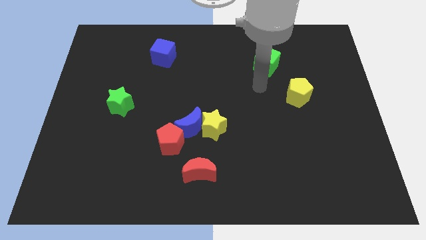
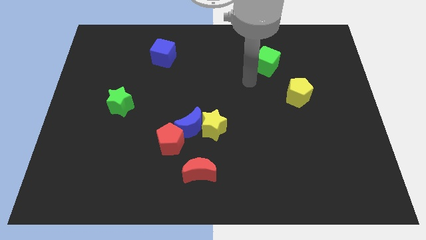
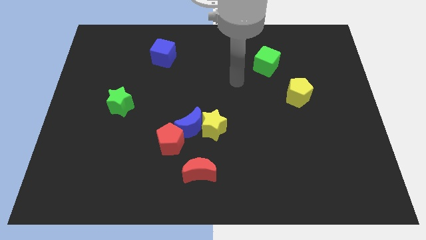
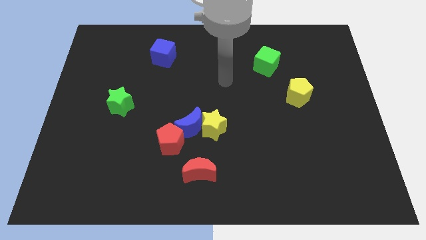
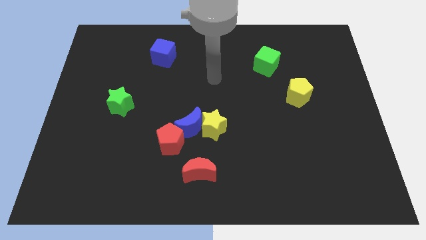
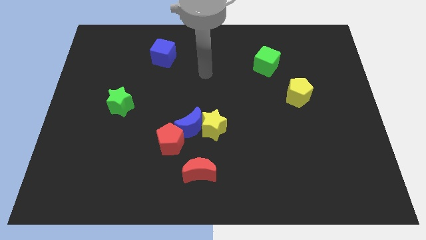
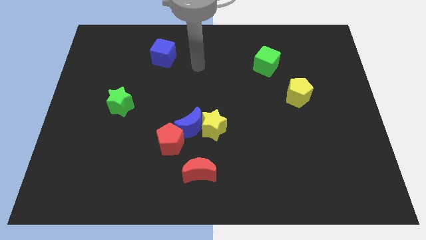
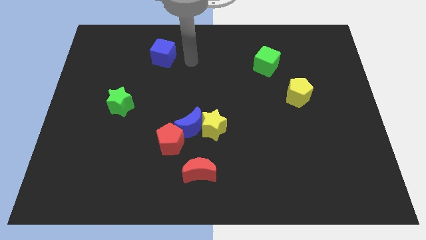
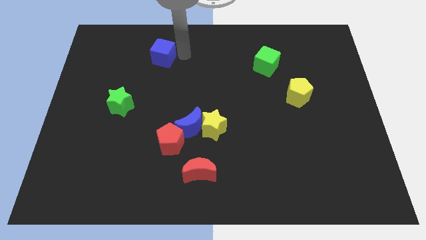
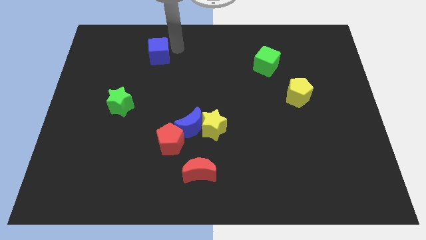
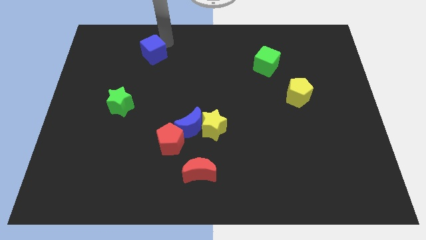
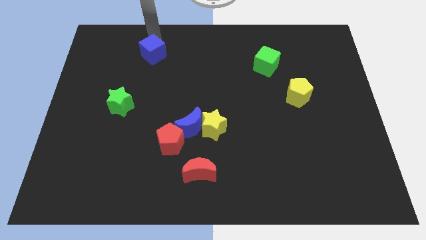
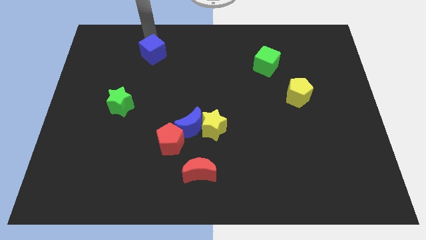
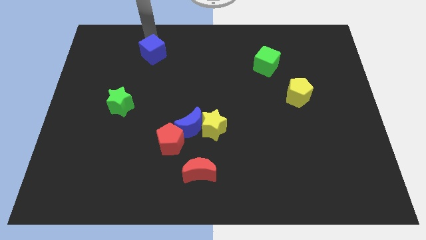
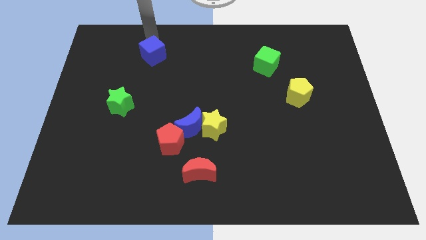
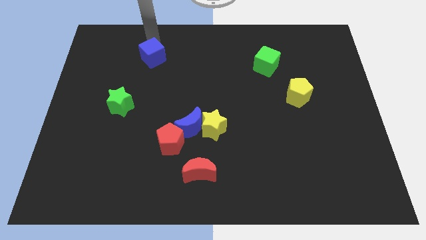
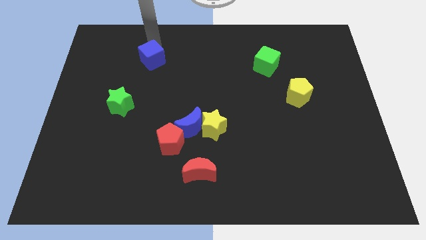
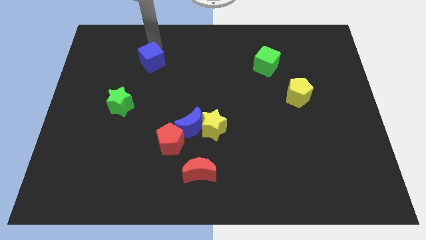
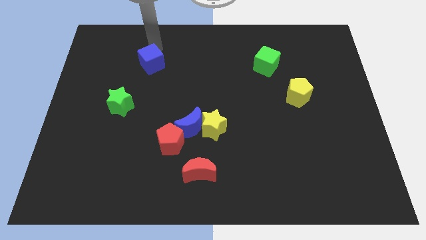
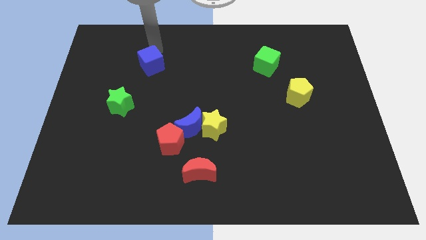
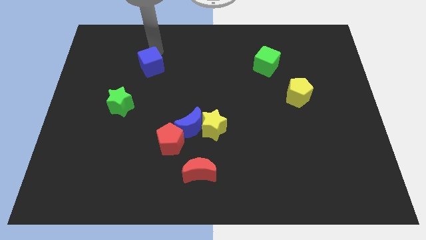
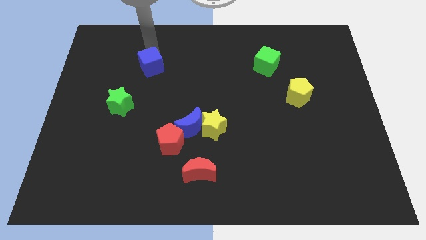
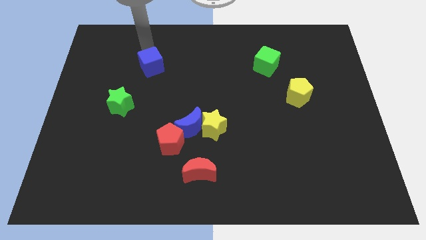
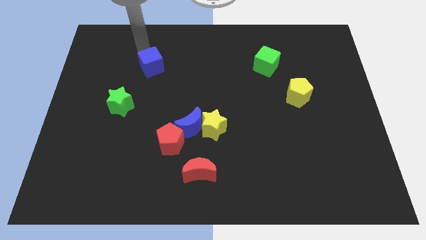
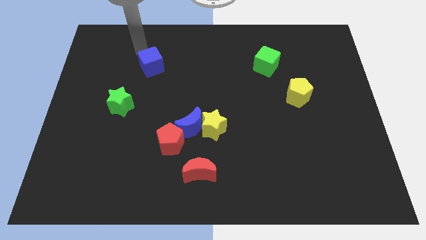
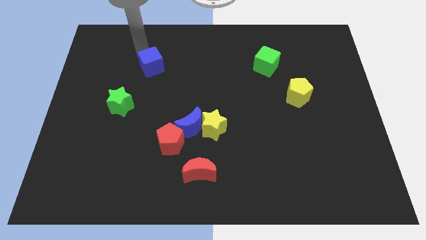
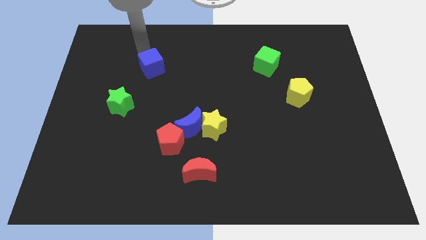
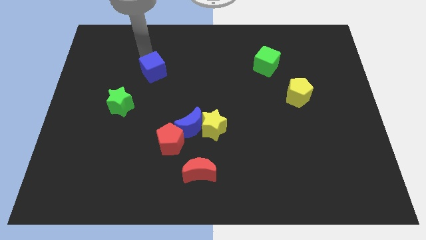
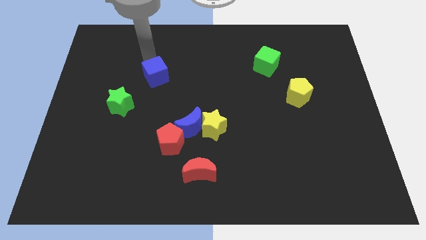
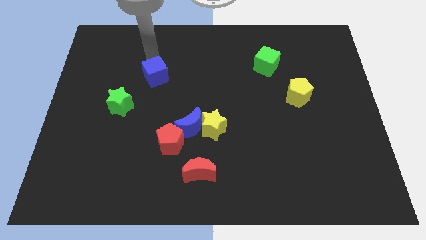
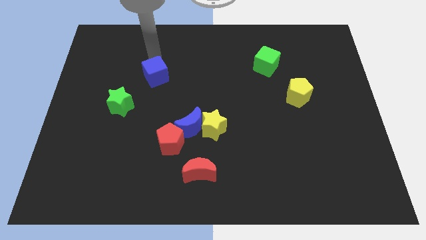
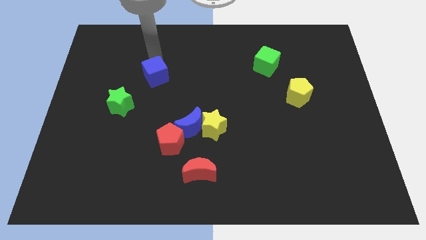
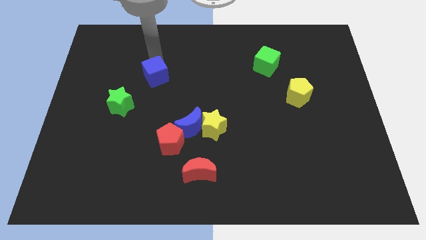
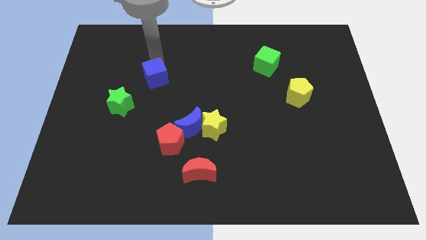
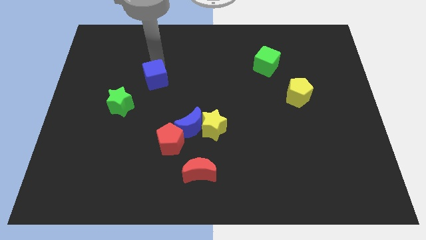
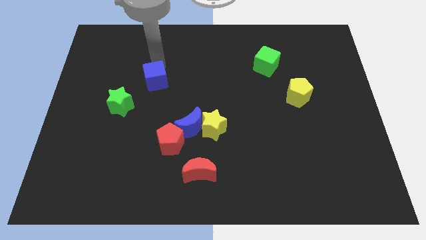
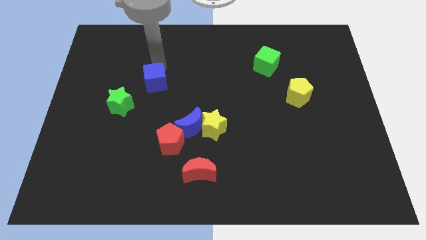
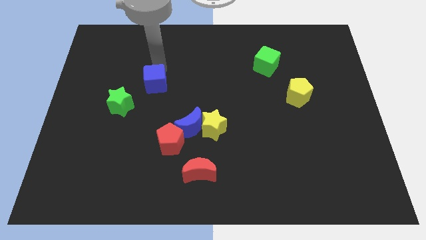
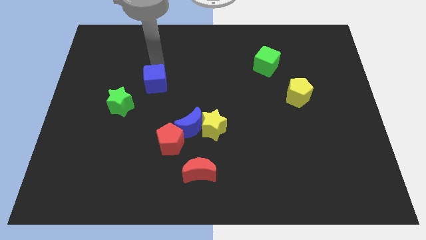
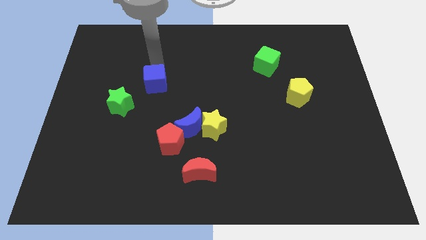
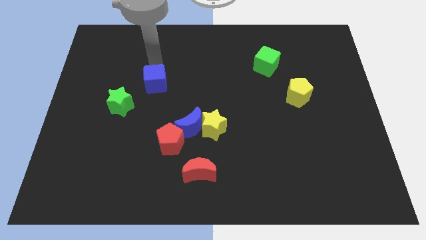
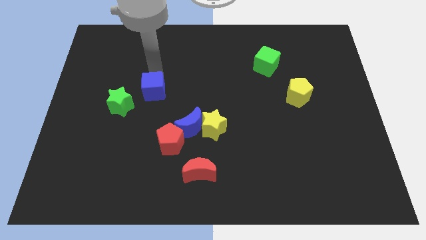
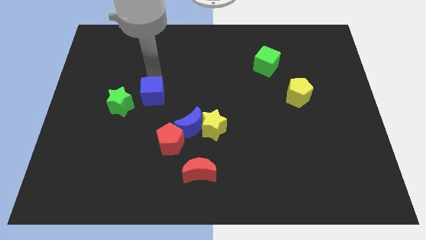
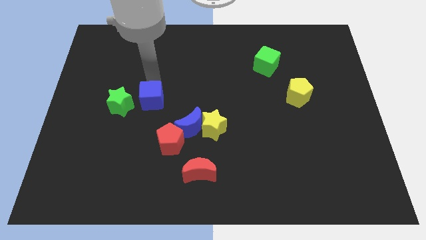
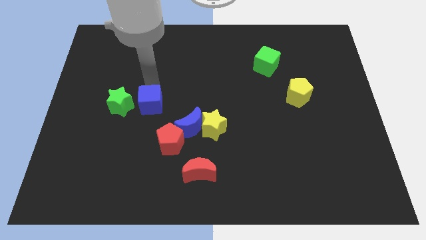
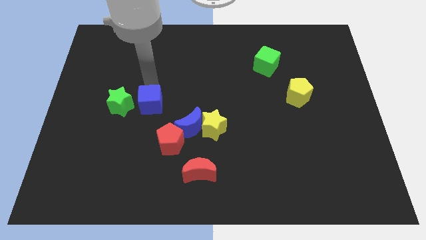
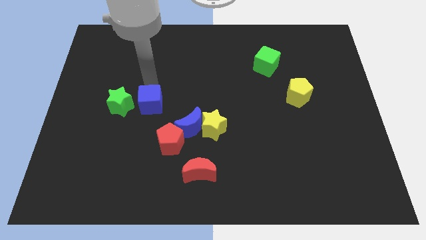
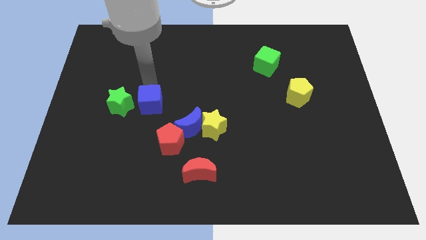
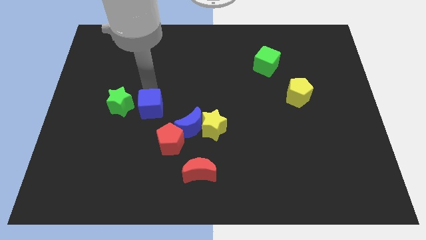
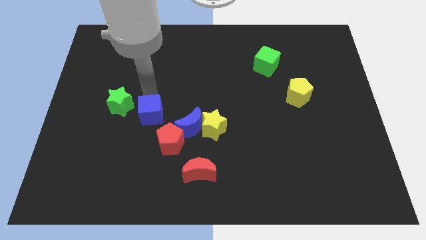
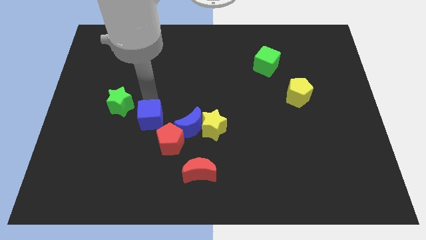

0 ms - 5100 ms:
push the blue cube down

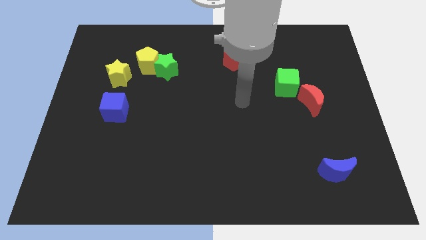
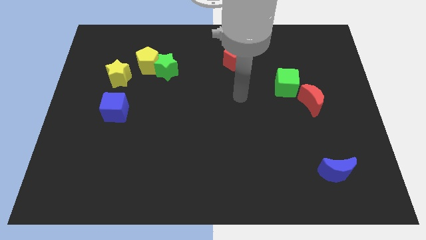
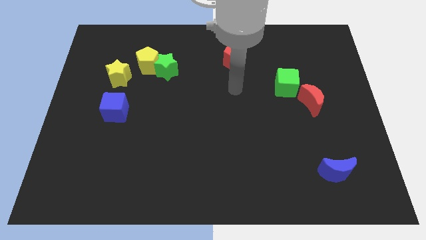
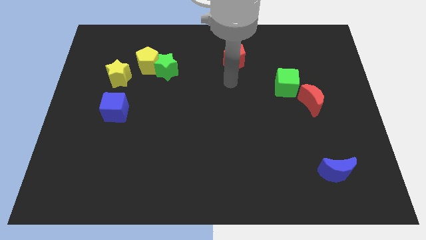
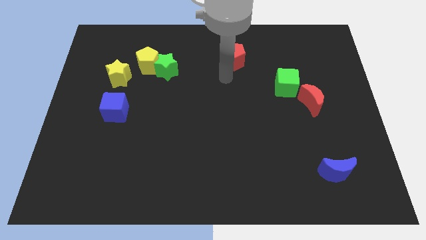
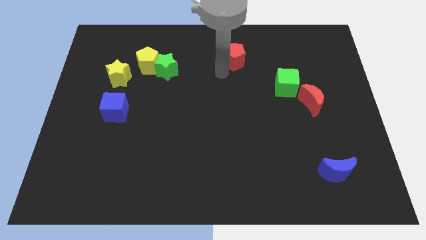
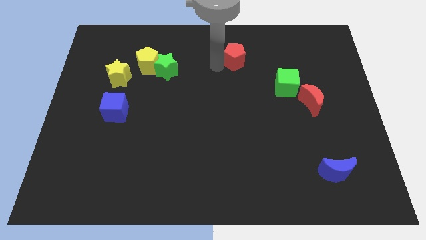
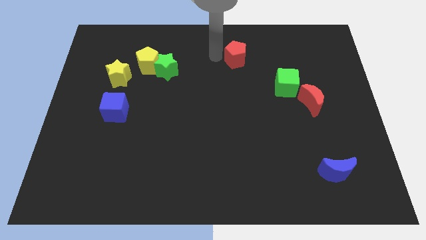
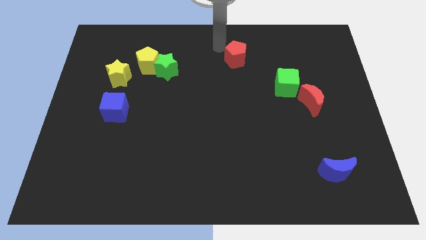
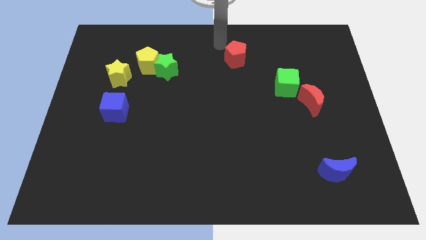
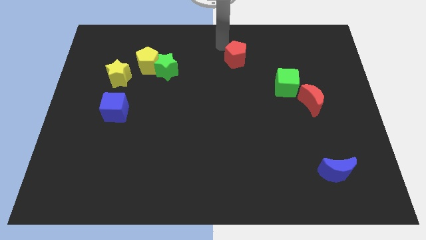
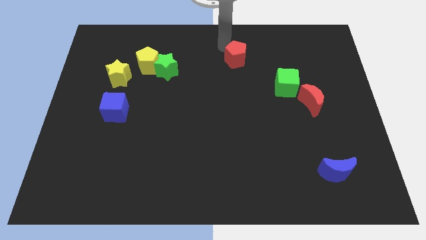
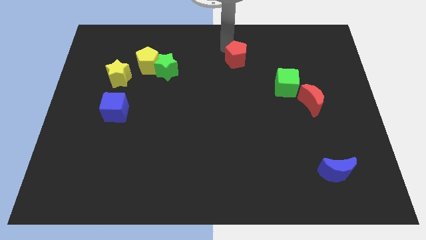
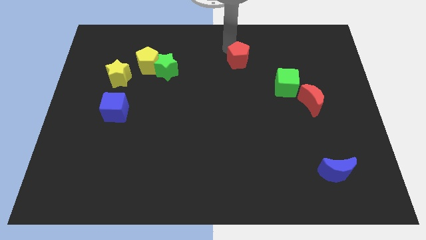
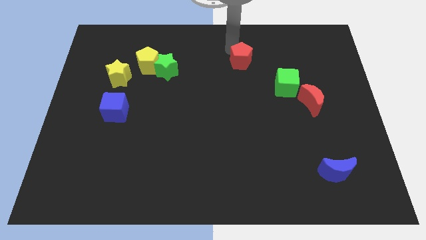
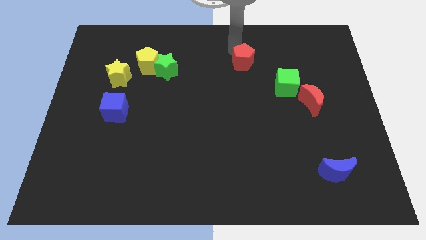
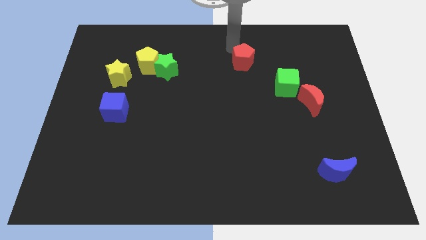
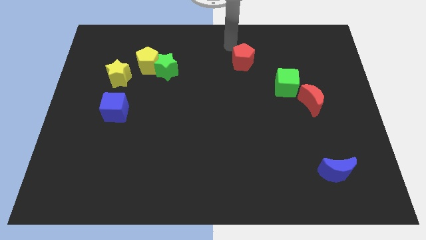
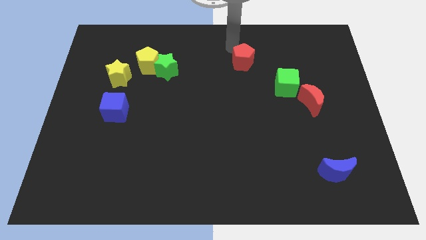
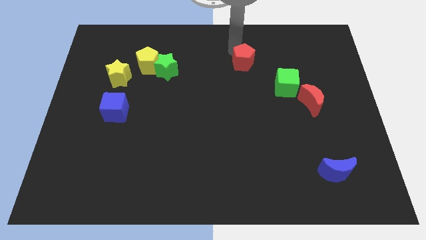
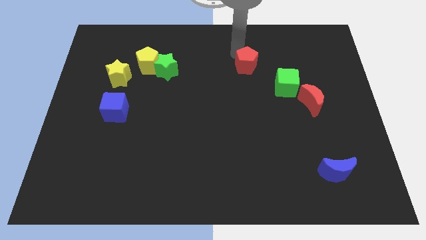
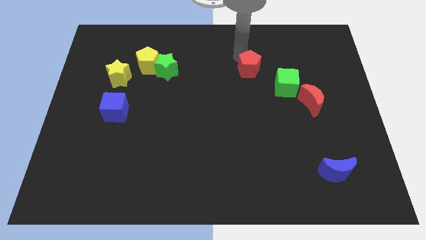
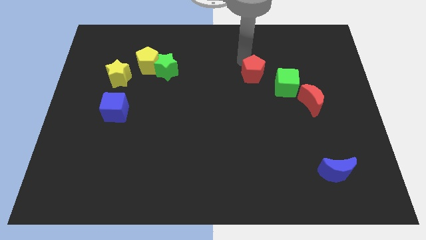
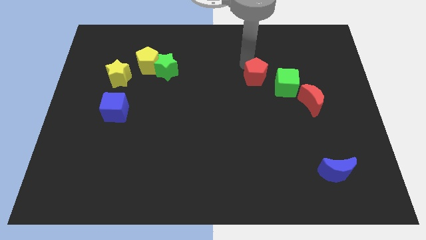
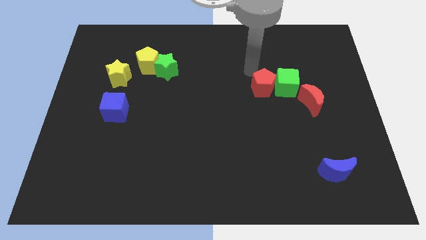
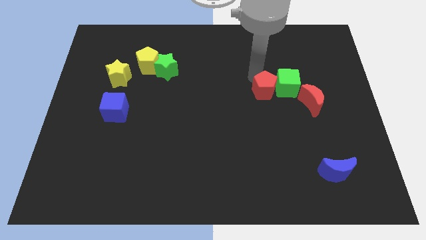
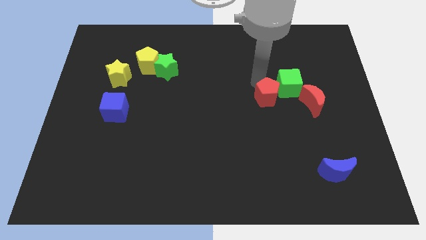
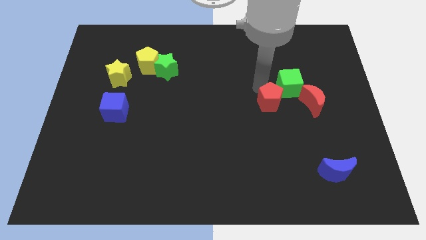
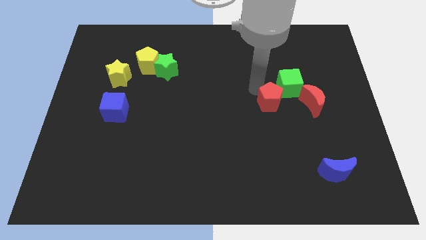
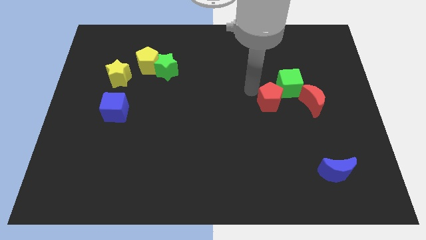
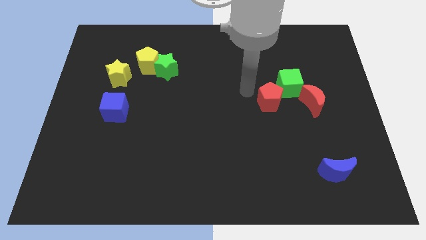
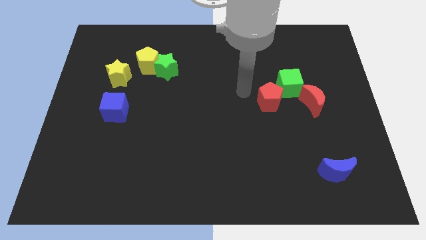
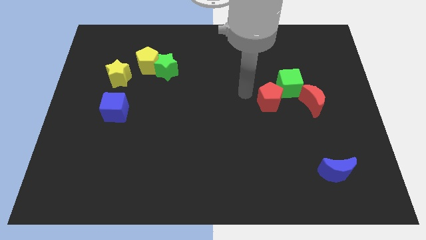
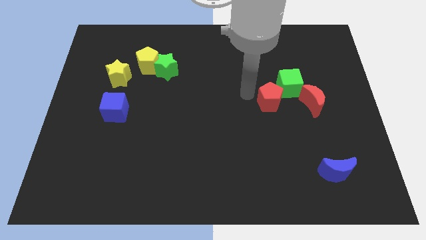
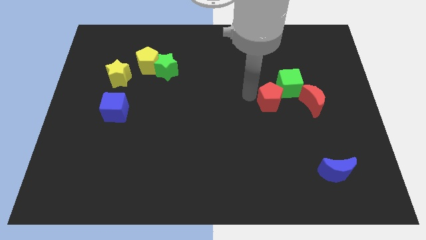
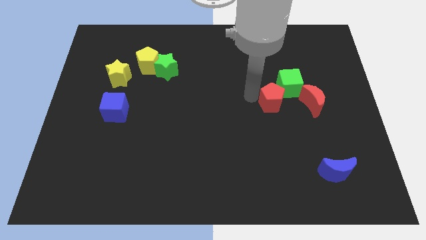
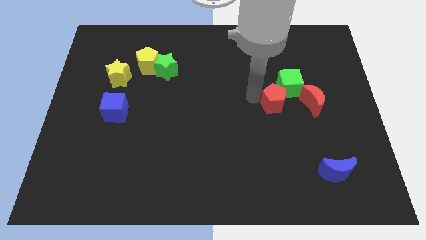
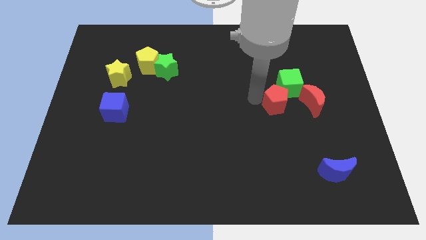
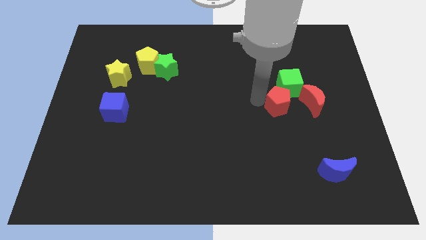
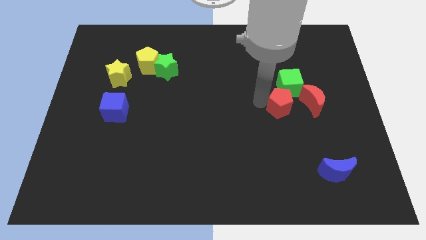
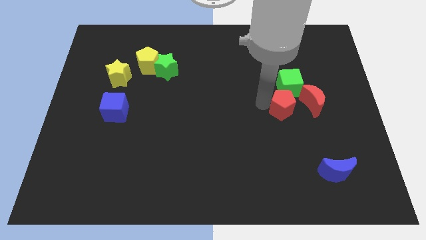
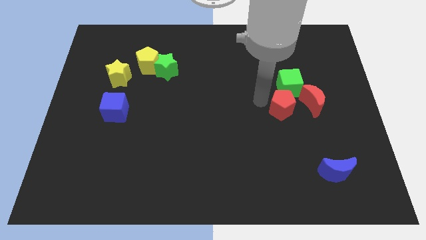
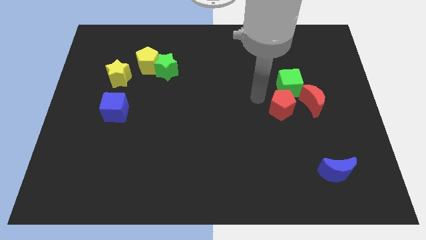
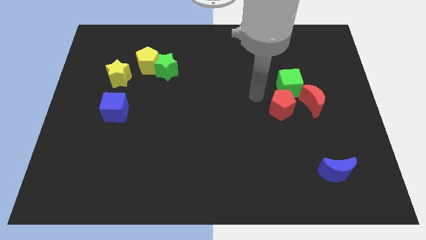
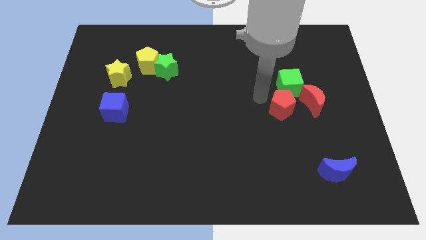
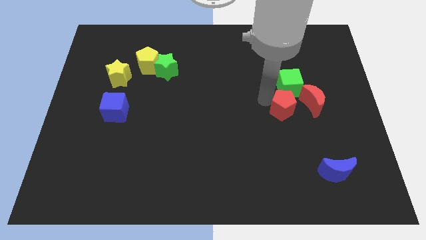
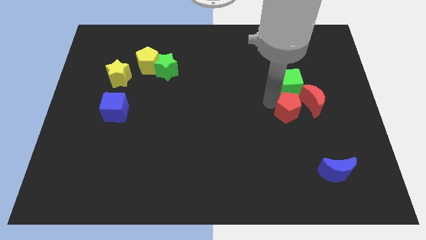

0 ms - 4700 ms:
push the red pentagon down and to the right diagonally
